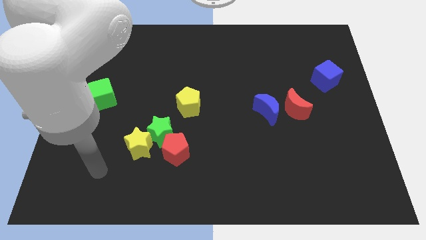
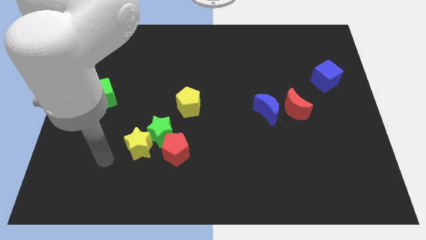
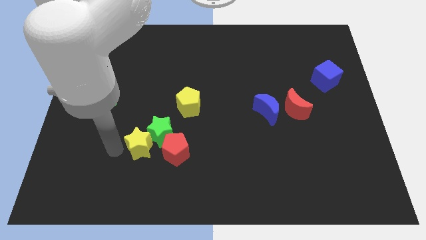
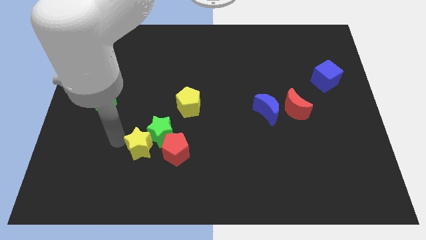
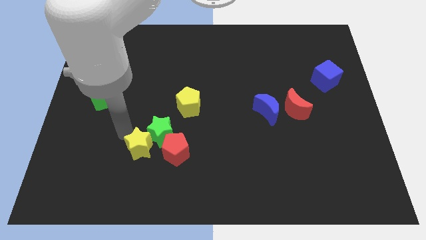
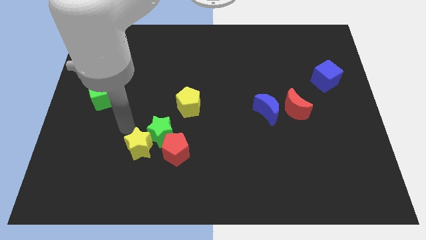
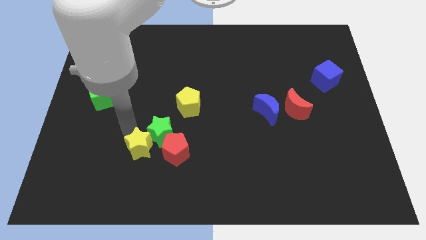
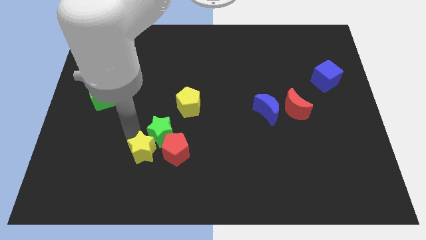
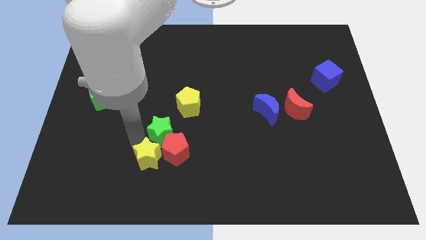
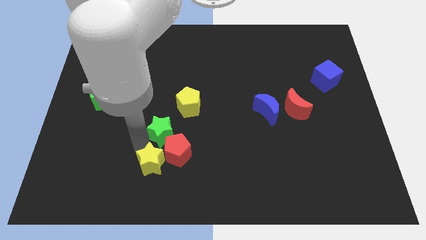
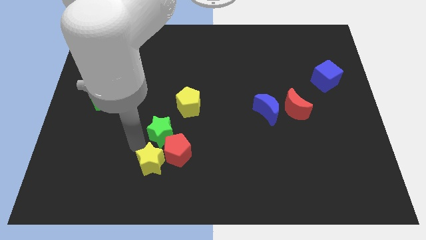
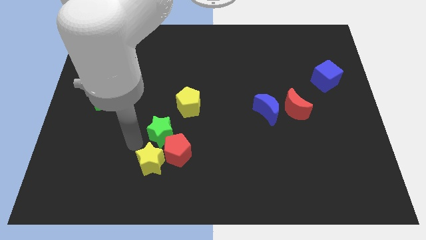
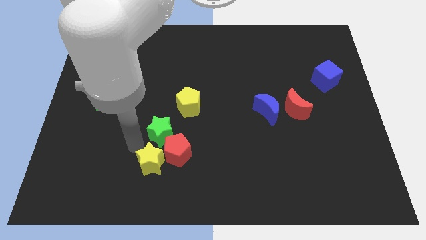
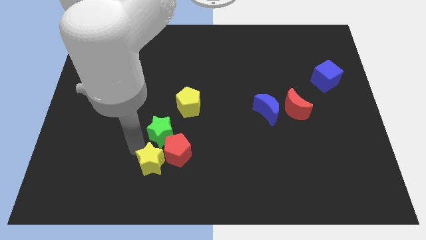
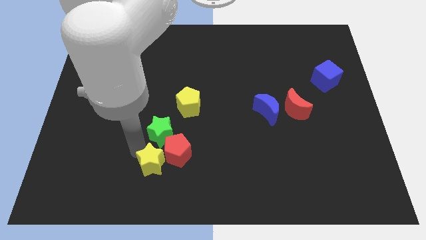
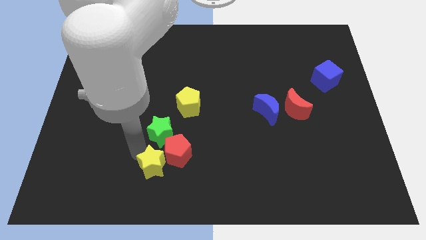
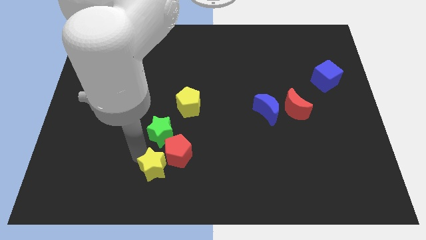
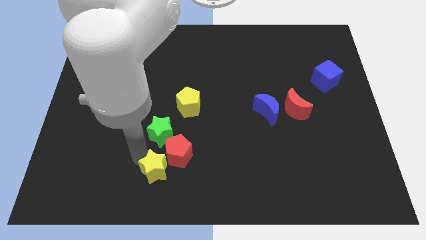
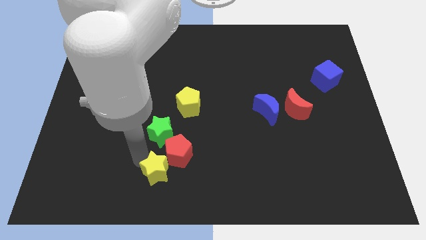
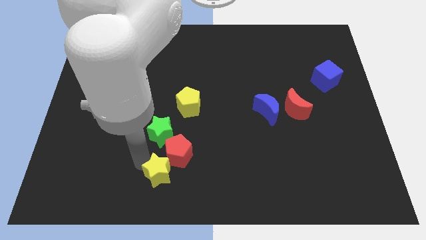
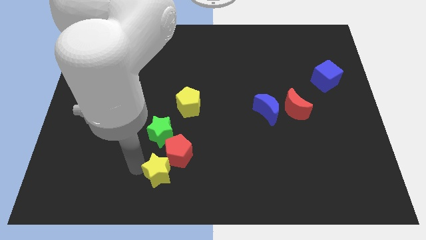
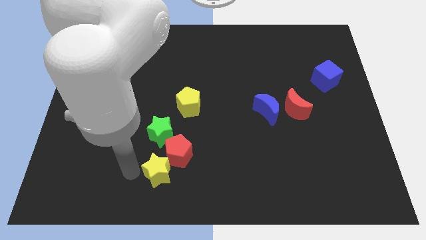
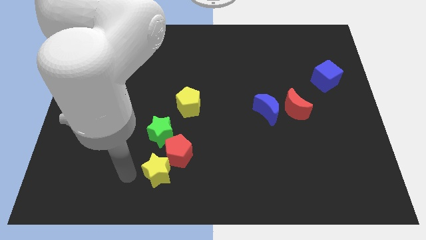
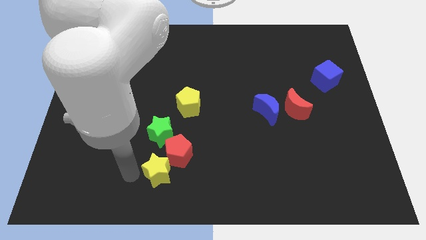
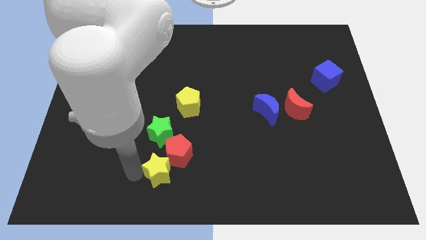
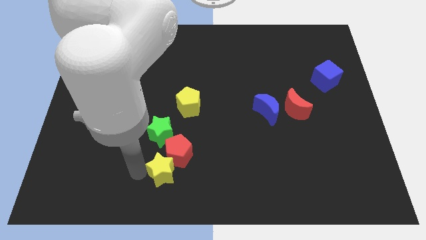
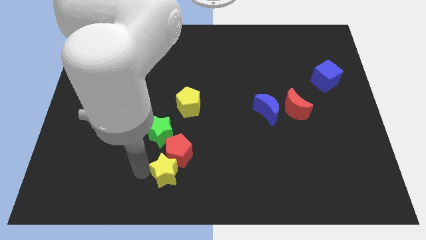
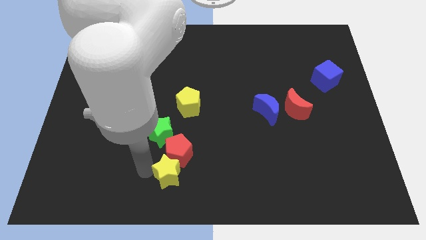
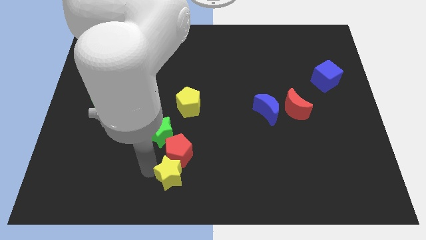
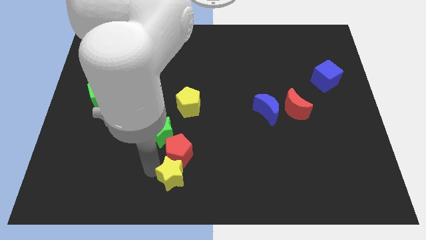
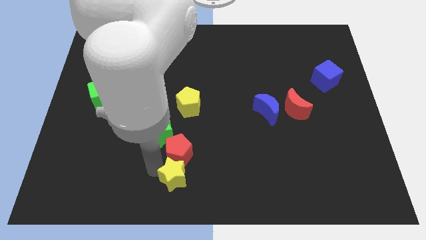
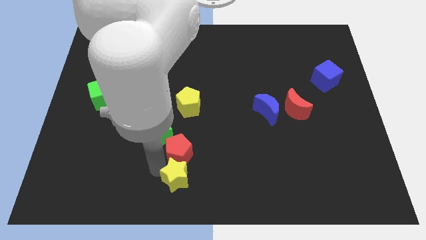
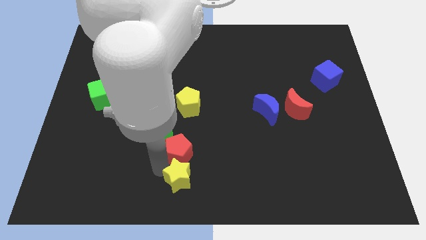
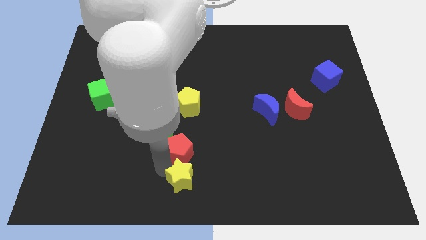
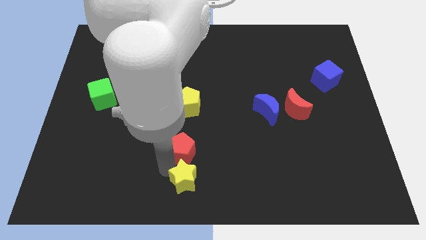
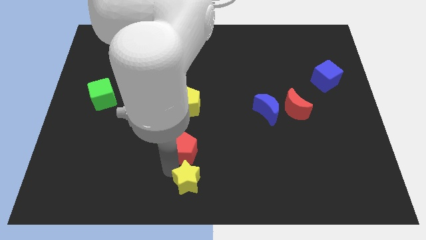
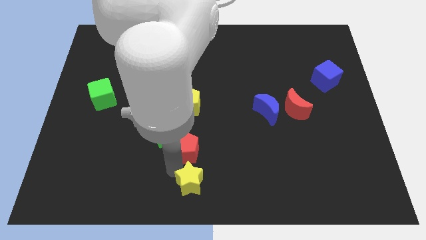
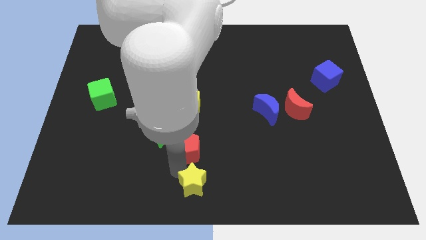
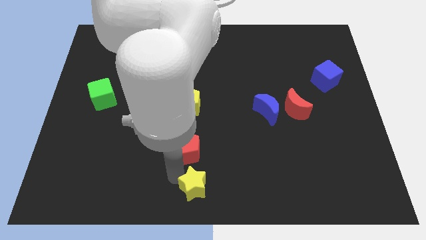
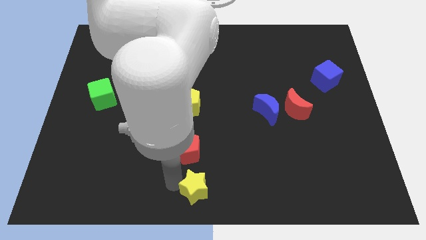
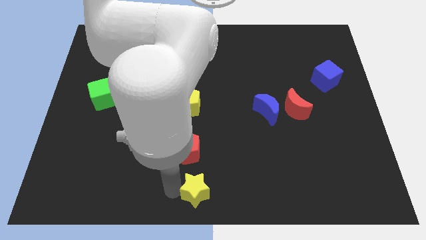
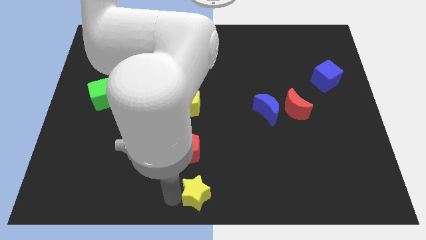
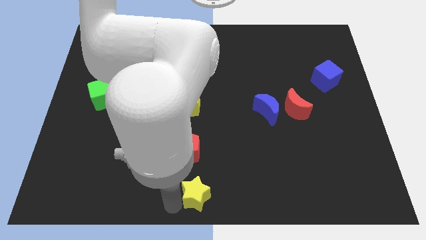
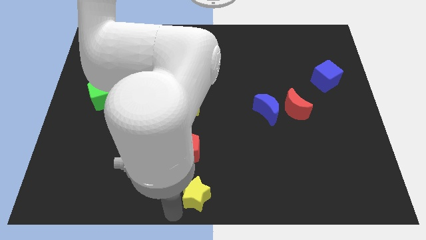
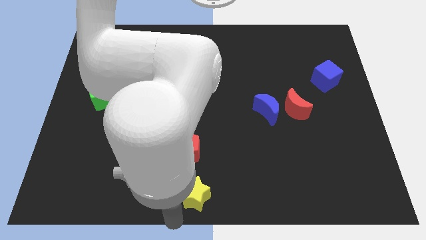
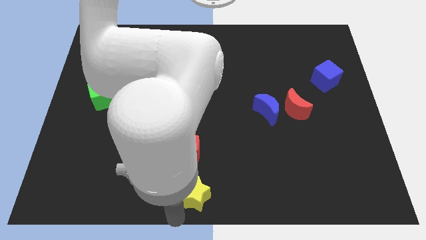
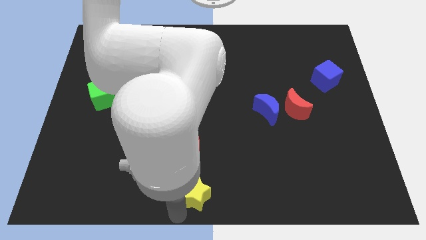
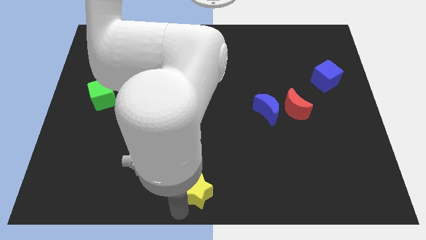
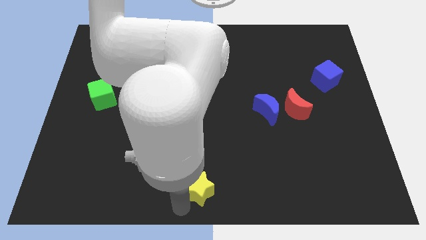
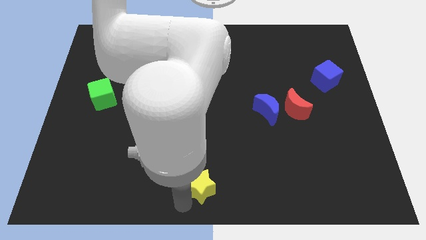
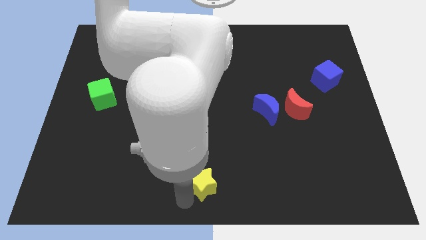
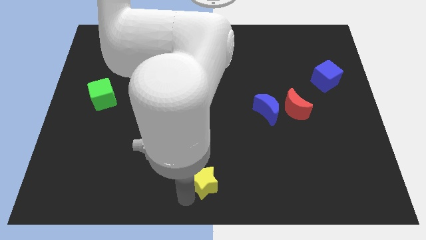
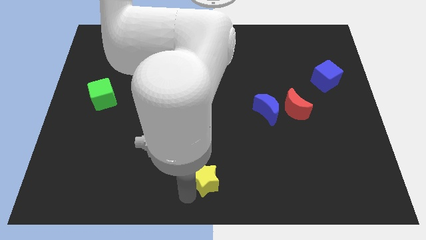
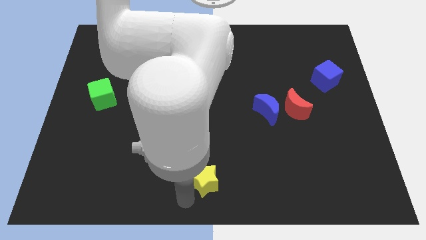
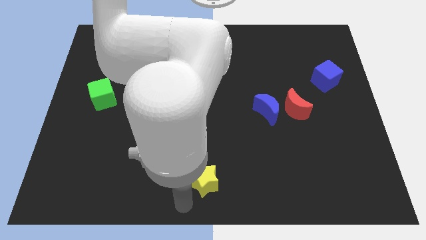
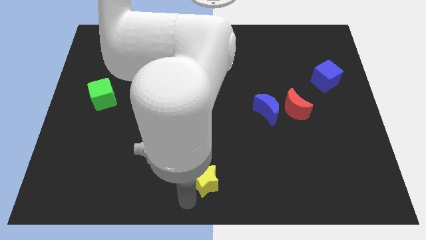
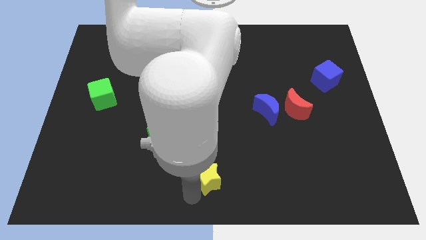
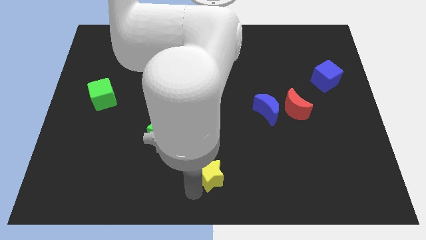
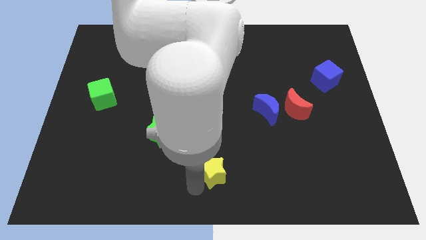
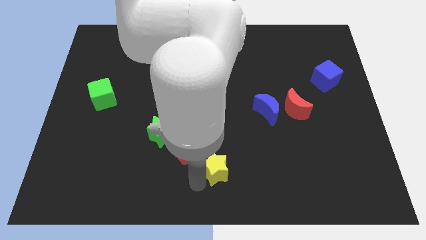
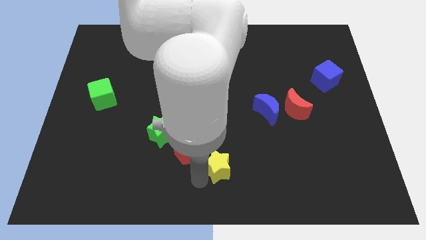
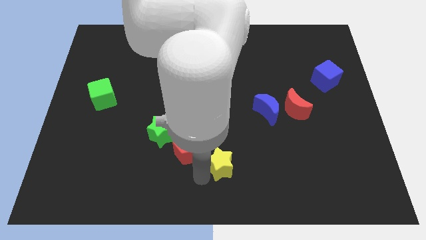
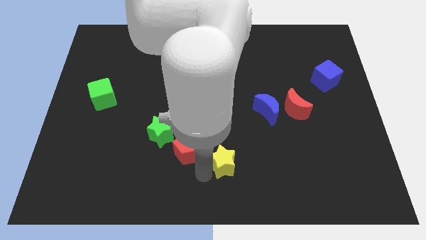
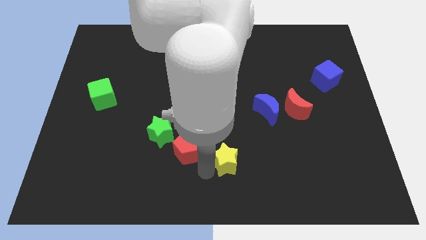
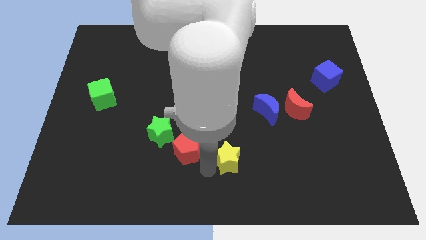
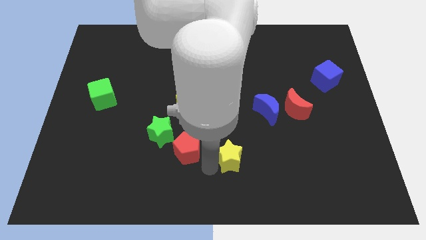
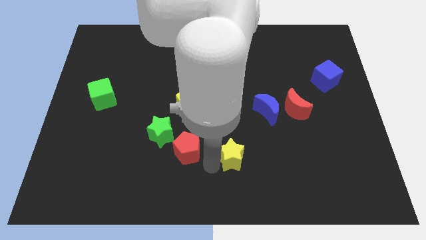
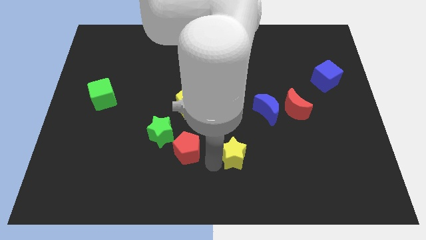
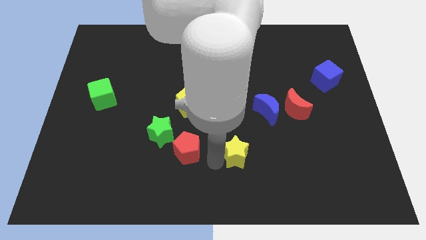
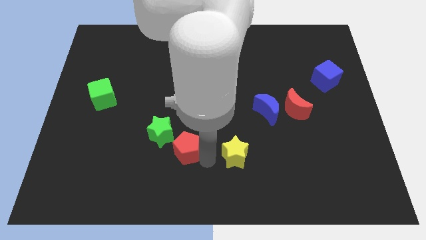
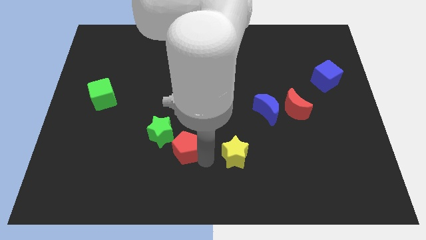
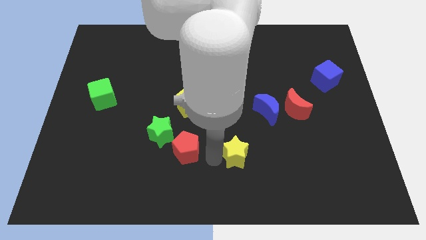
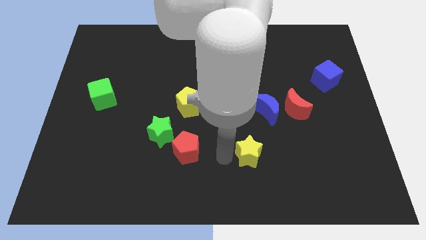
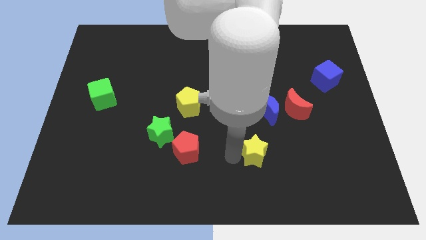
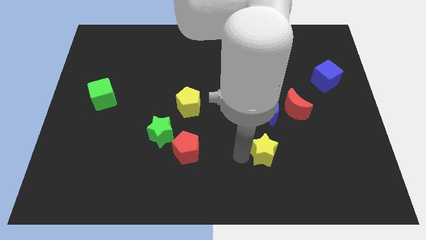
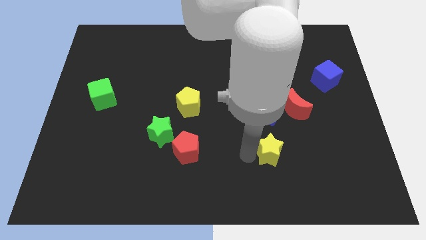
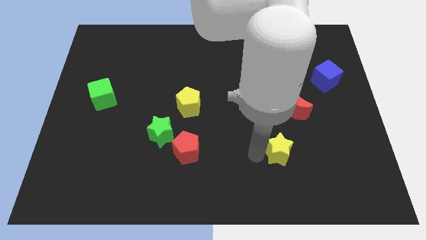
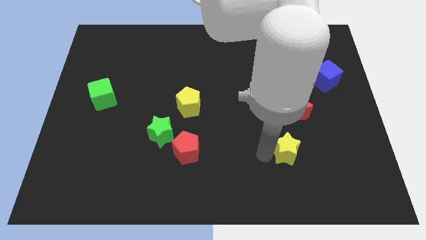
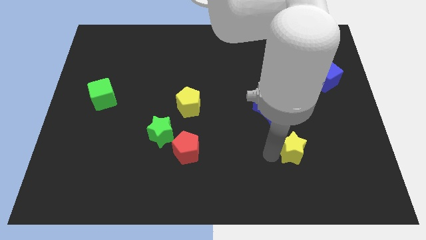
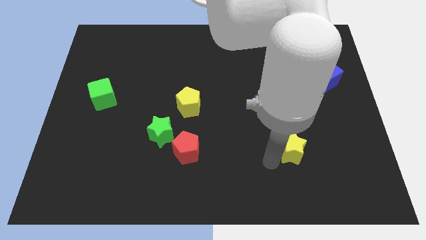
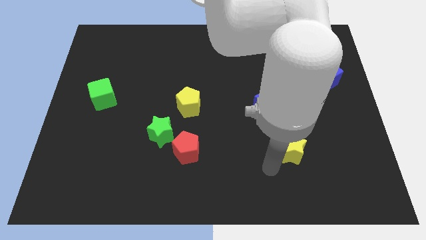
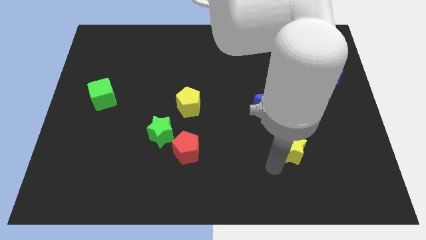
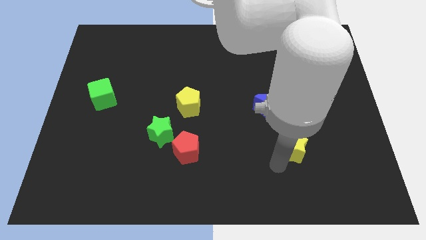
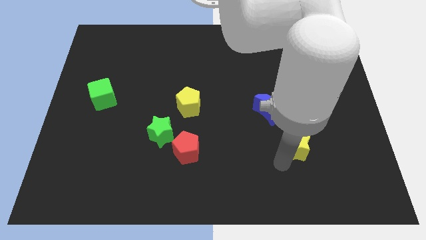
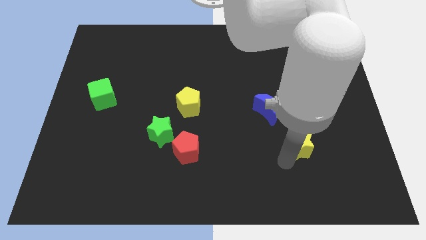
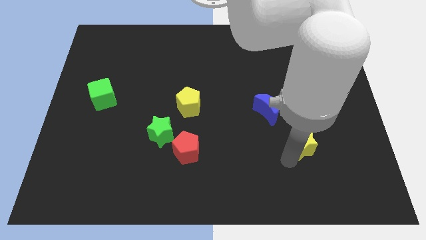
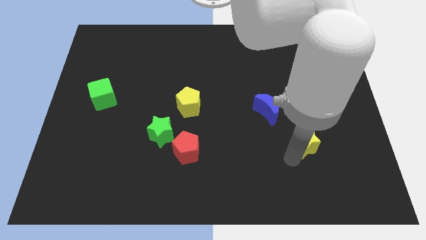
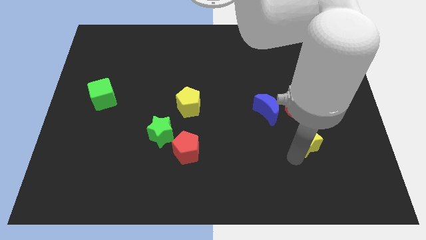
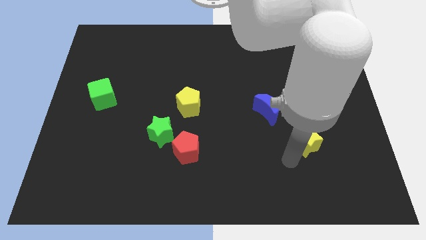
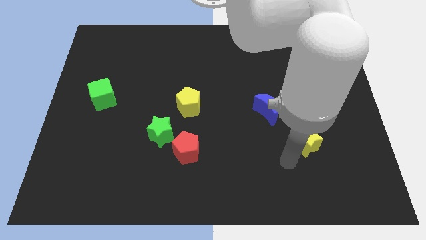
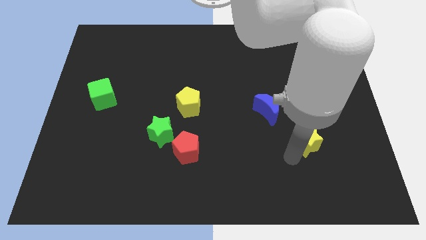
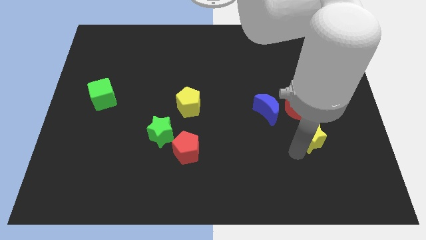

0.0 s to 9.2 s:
move the yellow star diagonally down and to the right of the red moon
